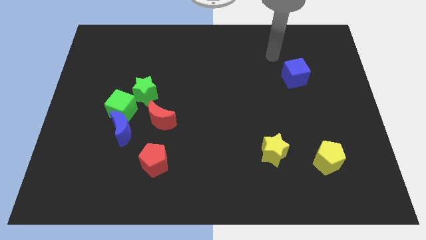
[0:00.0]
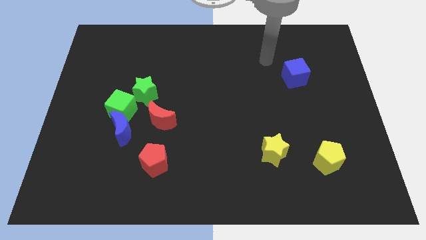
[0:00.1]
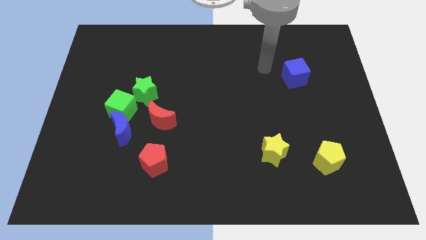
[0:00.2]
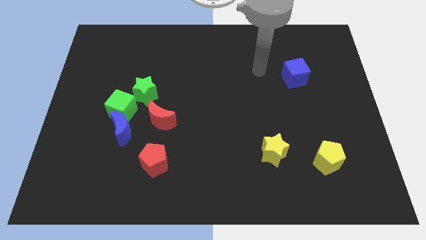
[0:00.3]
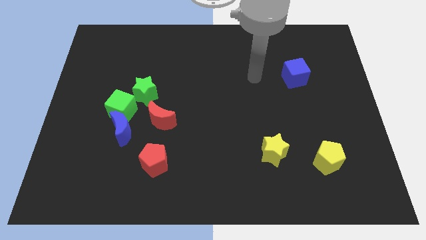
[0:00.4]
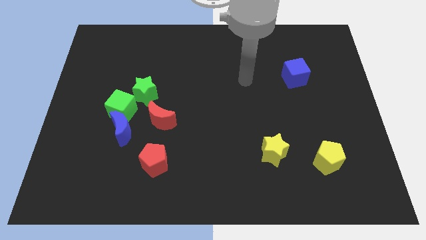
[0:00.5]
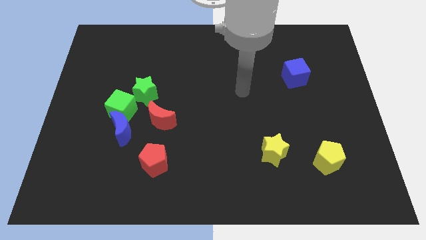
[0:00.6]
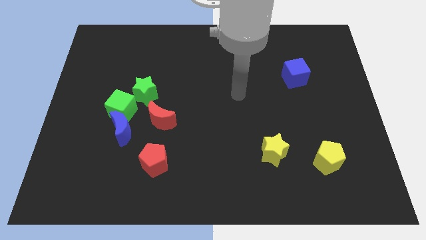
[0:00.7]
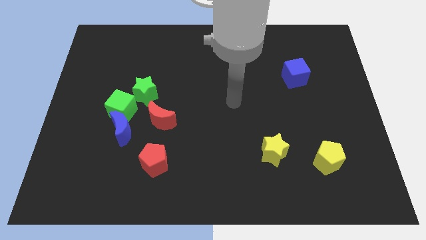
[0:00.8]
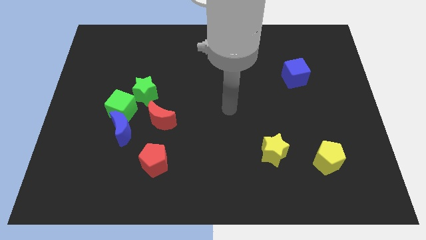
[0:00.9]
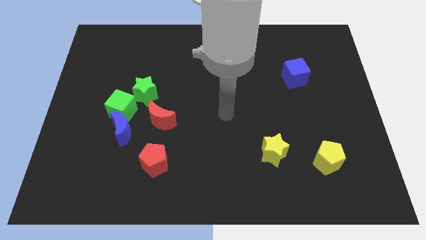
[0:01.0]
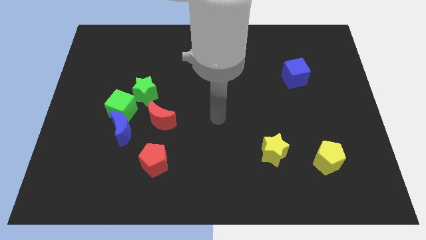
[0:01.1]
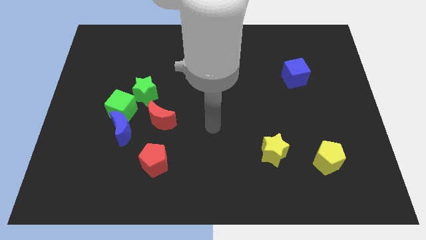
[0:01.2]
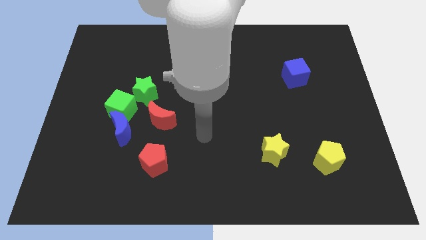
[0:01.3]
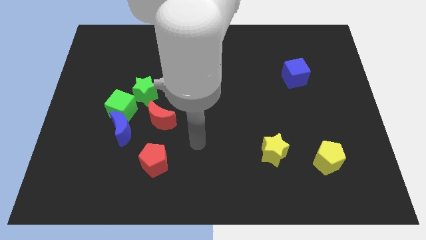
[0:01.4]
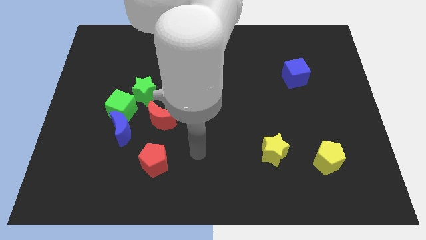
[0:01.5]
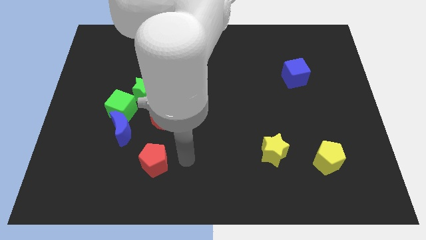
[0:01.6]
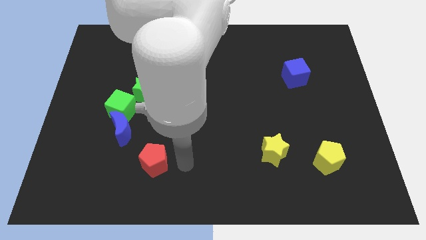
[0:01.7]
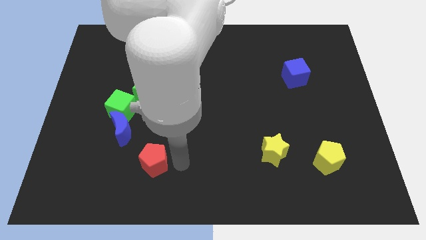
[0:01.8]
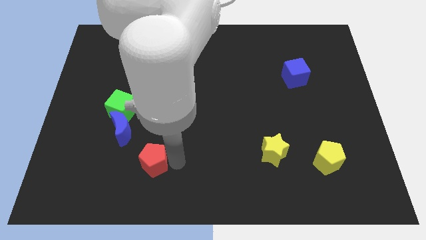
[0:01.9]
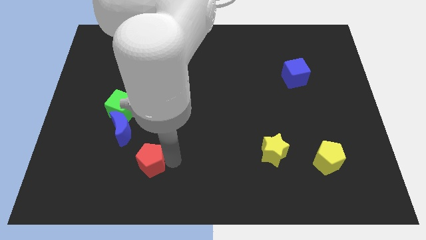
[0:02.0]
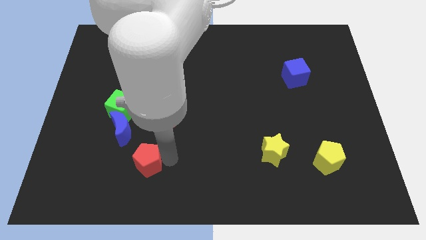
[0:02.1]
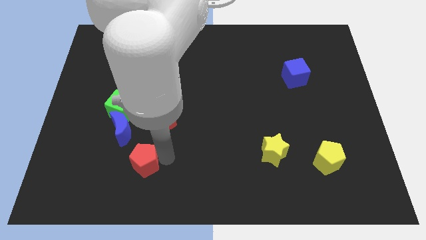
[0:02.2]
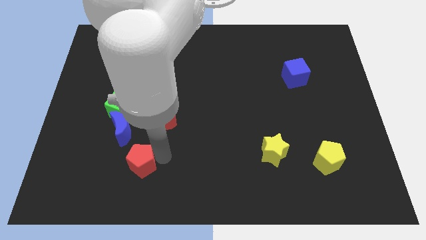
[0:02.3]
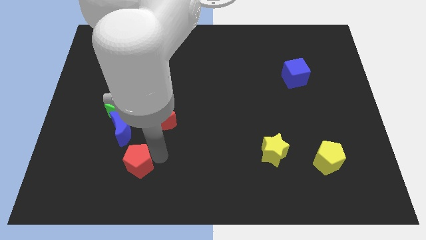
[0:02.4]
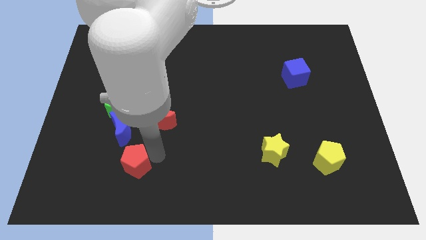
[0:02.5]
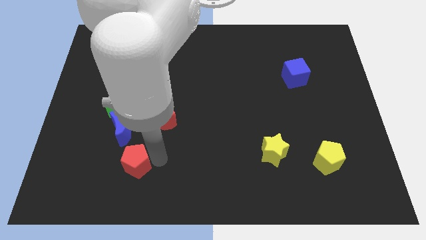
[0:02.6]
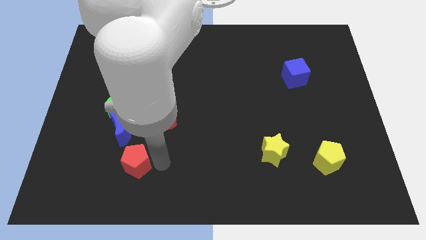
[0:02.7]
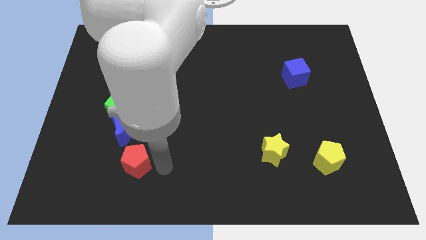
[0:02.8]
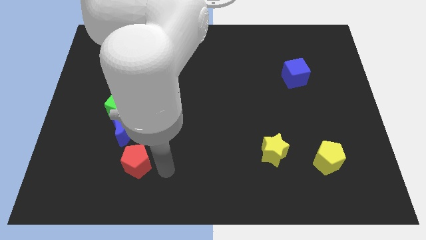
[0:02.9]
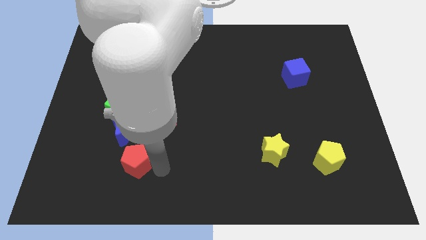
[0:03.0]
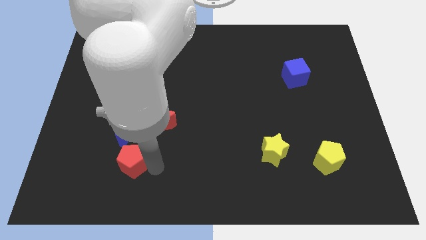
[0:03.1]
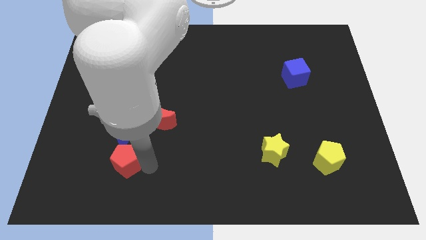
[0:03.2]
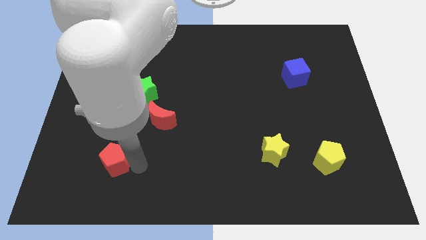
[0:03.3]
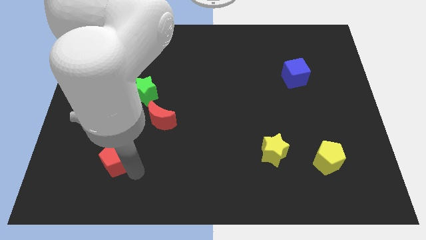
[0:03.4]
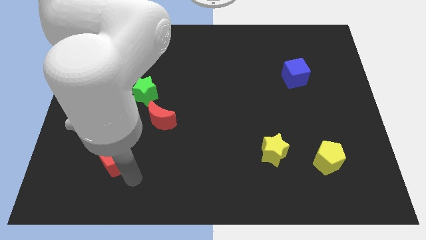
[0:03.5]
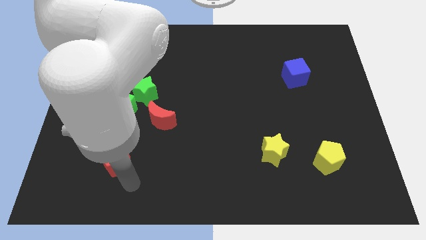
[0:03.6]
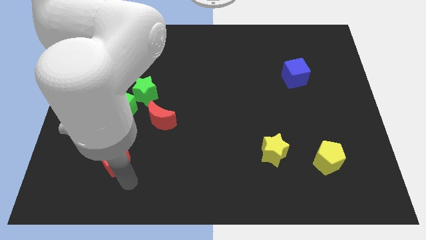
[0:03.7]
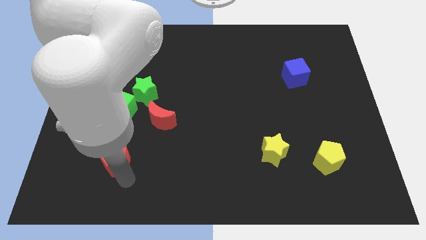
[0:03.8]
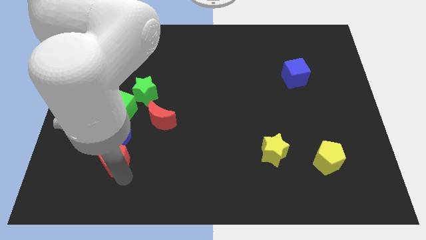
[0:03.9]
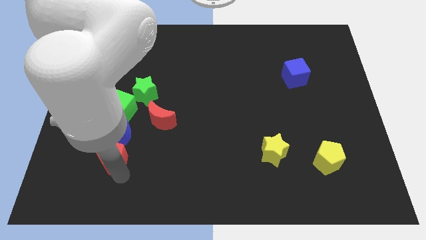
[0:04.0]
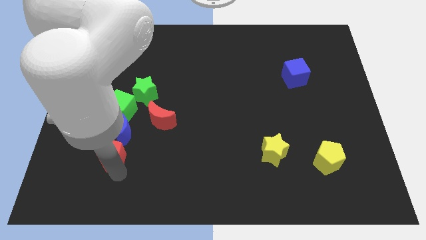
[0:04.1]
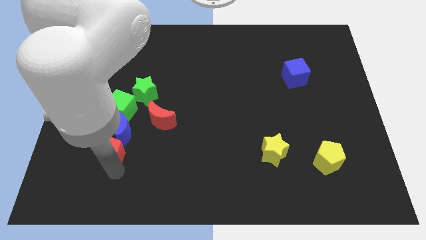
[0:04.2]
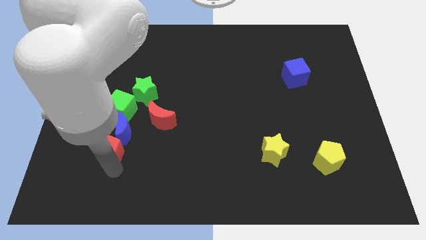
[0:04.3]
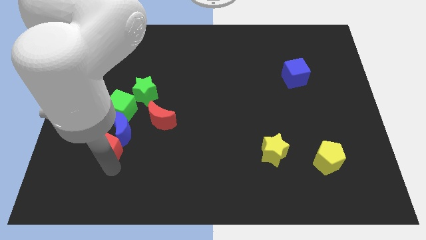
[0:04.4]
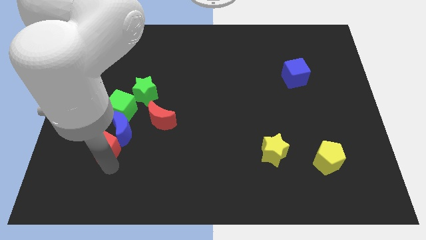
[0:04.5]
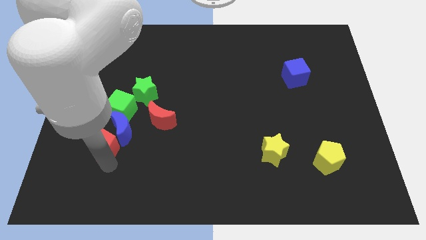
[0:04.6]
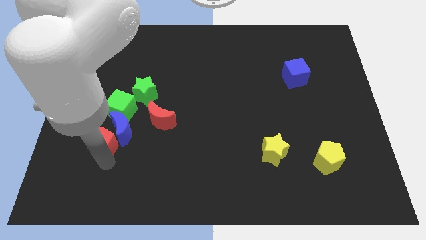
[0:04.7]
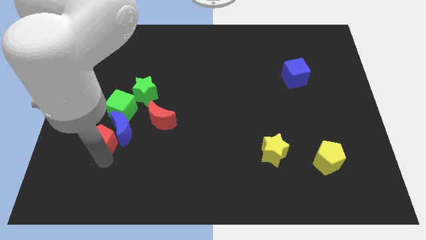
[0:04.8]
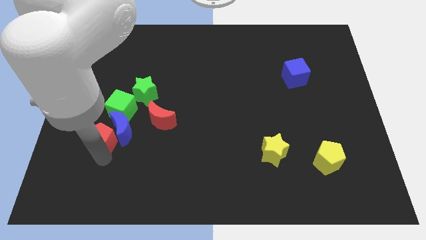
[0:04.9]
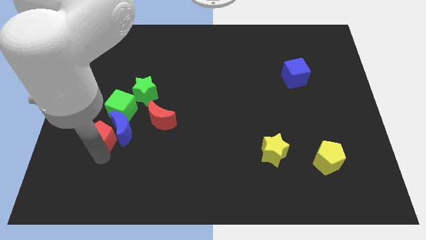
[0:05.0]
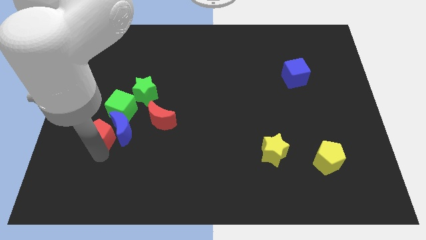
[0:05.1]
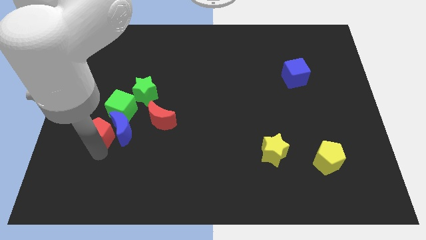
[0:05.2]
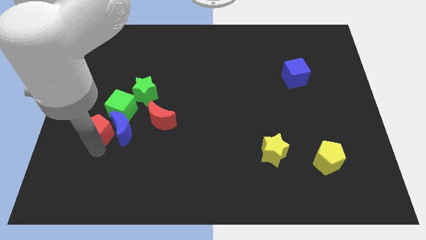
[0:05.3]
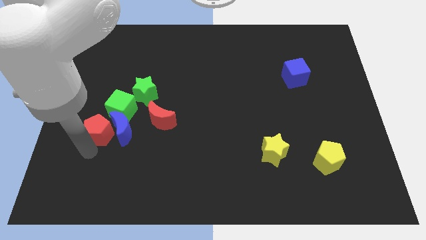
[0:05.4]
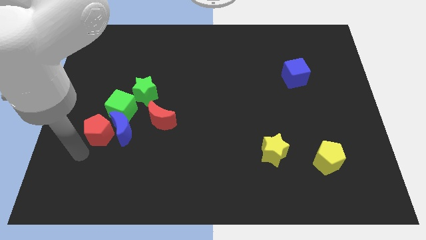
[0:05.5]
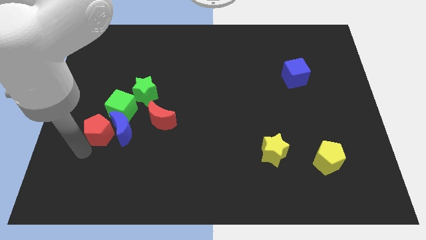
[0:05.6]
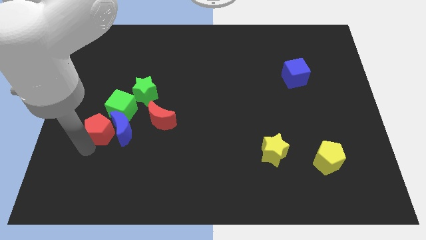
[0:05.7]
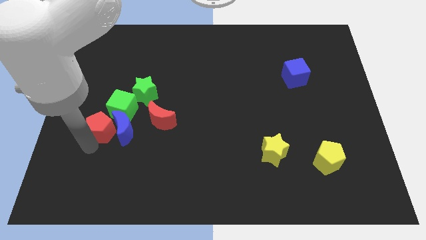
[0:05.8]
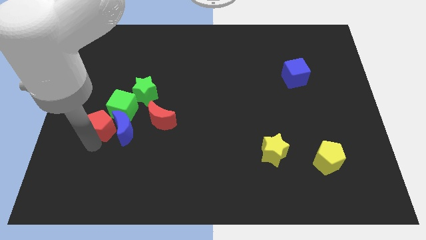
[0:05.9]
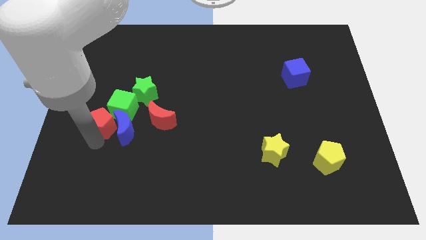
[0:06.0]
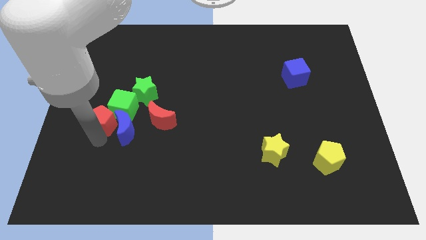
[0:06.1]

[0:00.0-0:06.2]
move the red pentagon close to the green cube

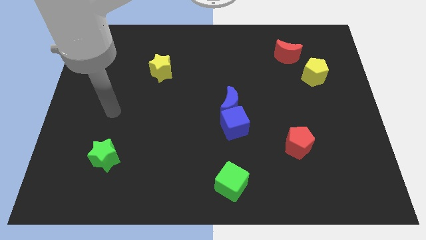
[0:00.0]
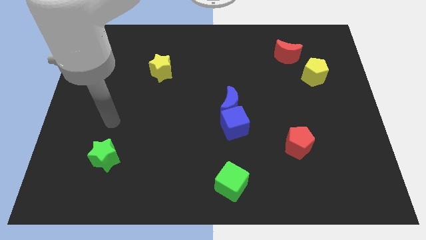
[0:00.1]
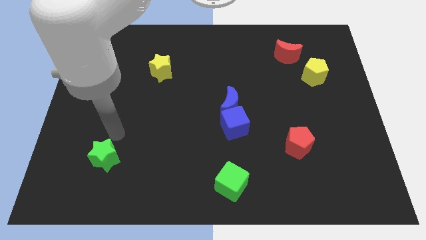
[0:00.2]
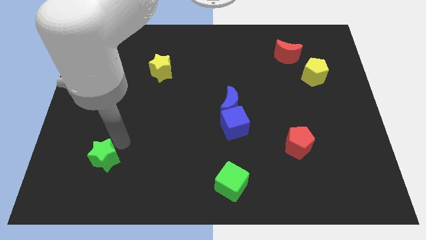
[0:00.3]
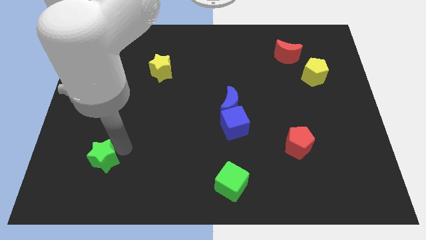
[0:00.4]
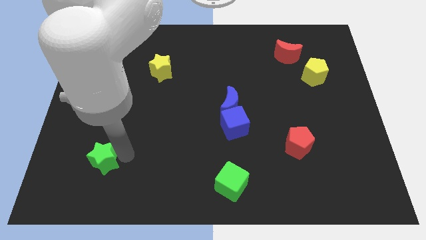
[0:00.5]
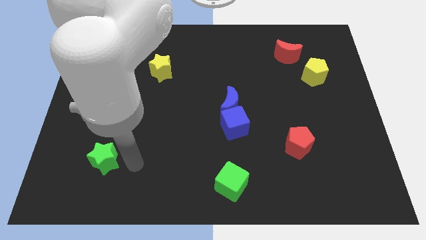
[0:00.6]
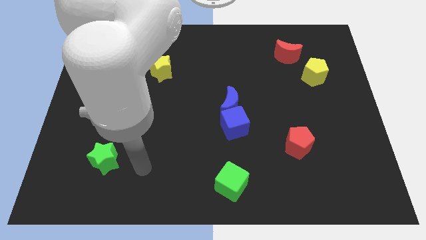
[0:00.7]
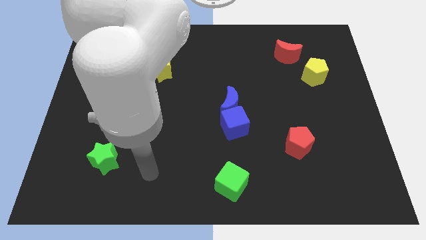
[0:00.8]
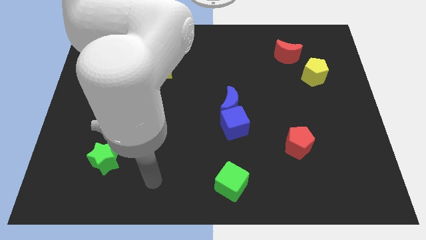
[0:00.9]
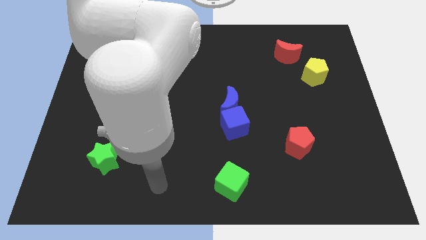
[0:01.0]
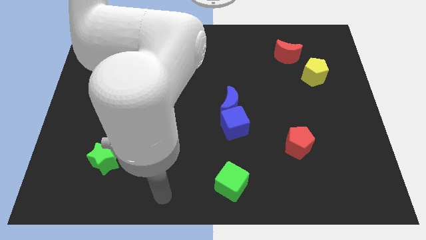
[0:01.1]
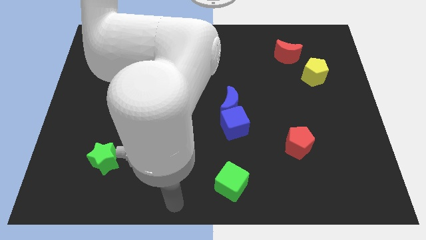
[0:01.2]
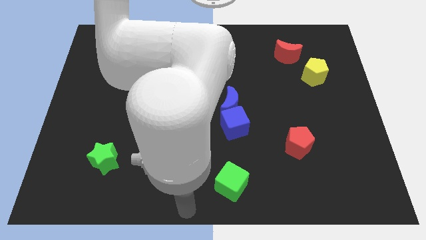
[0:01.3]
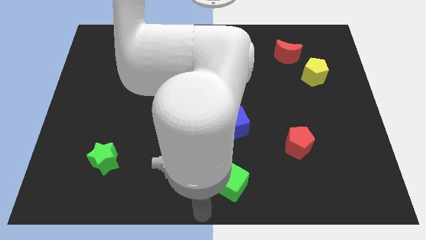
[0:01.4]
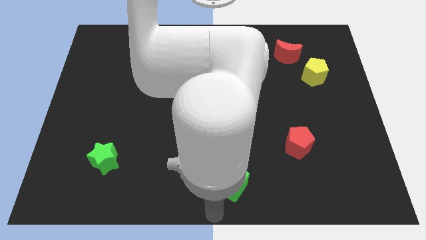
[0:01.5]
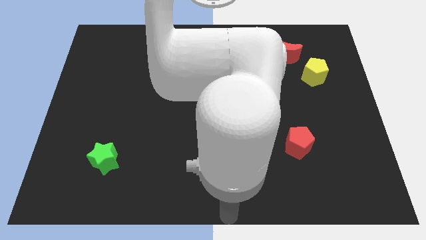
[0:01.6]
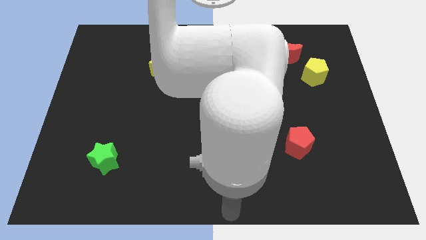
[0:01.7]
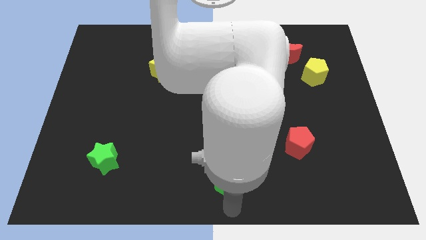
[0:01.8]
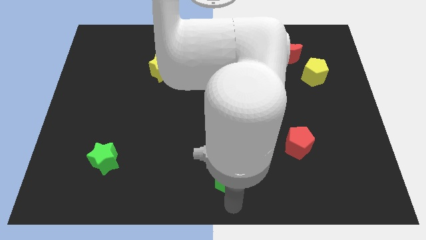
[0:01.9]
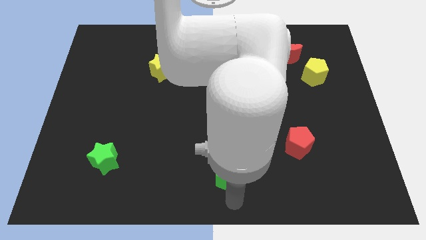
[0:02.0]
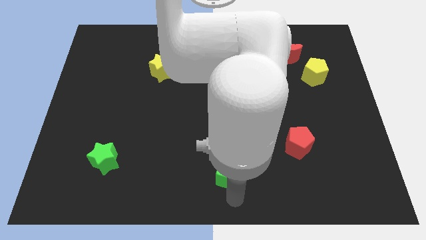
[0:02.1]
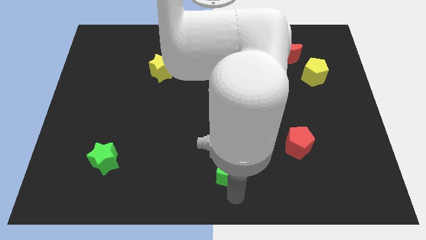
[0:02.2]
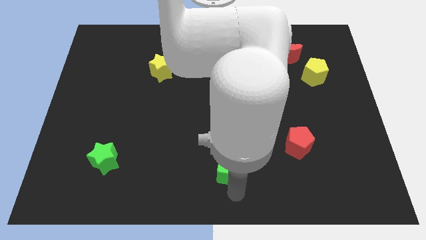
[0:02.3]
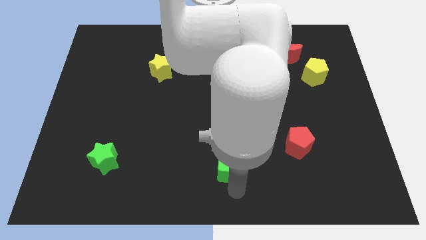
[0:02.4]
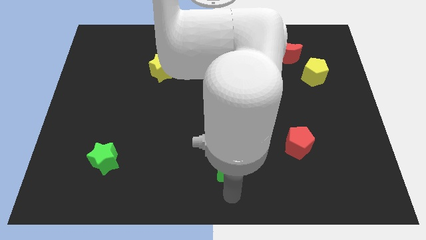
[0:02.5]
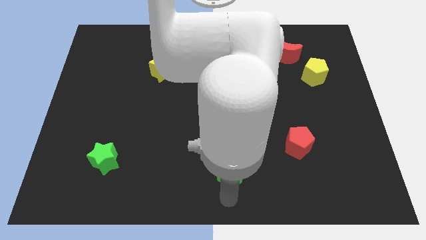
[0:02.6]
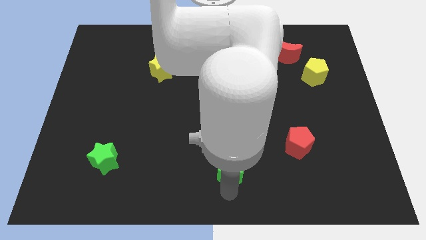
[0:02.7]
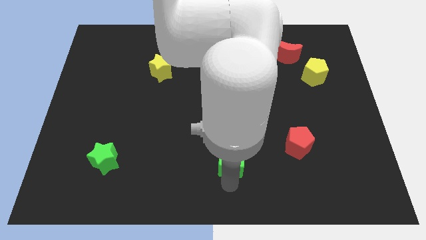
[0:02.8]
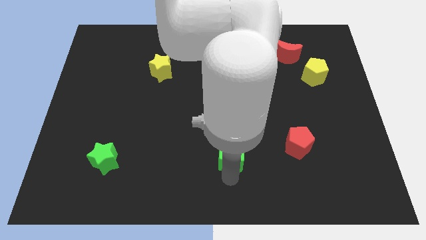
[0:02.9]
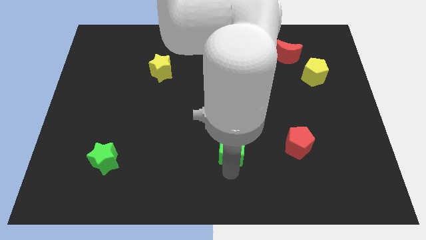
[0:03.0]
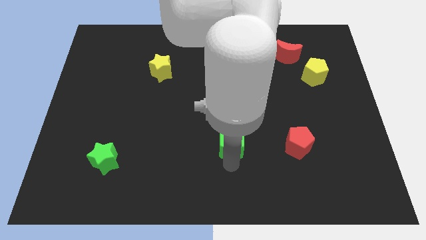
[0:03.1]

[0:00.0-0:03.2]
put the green cube towards the blue cube
